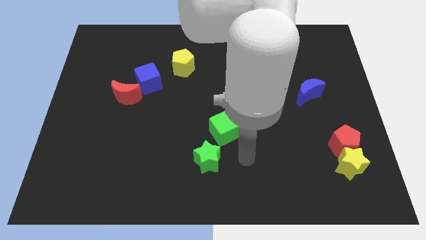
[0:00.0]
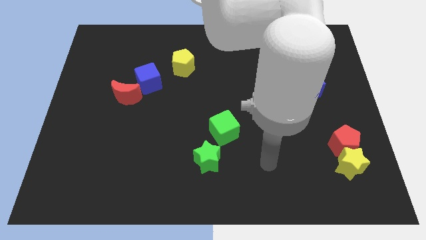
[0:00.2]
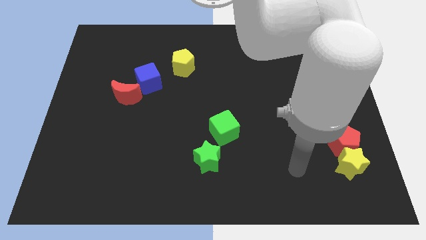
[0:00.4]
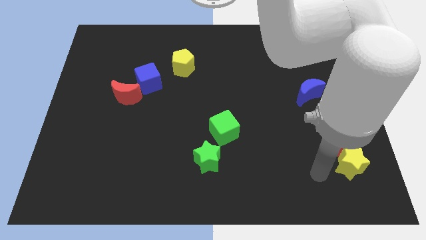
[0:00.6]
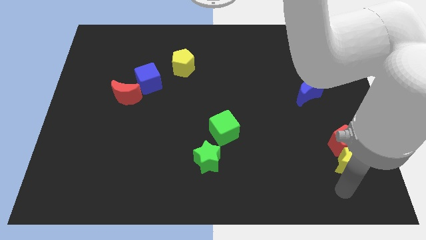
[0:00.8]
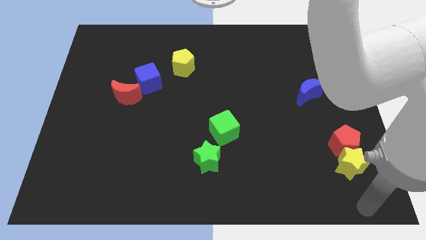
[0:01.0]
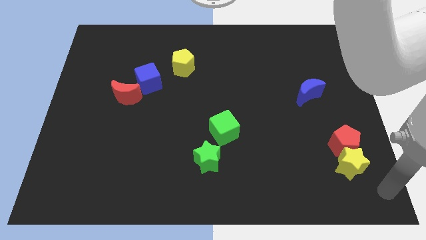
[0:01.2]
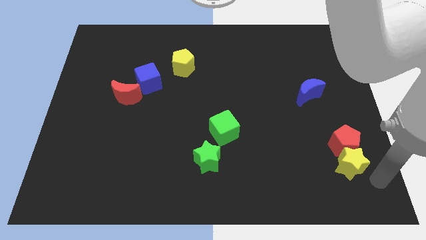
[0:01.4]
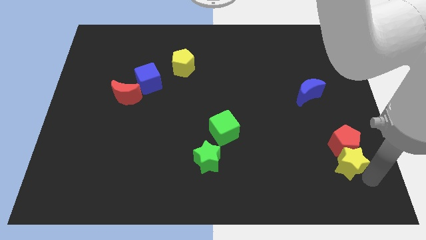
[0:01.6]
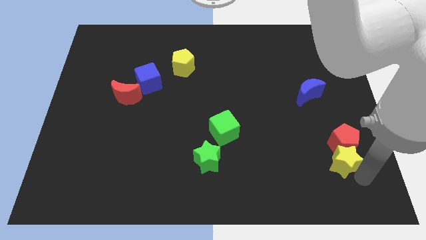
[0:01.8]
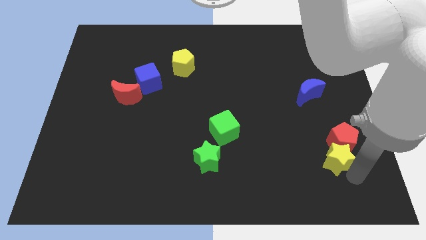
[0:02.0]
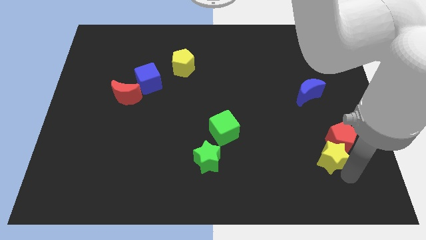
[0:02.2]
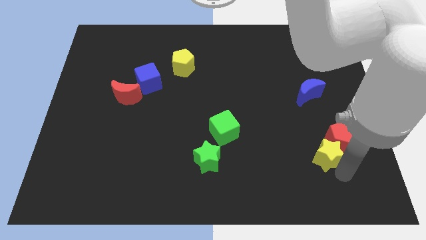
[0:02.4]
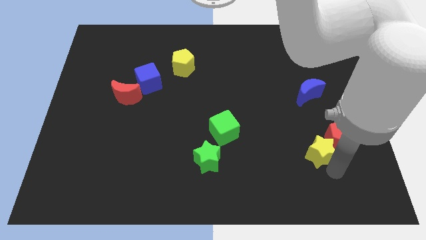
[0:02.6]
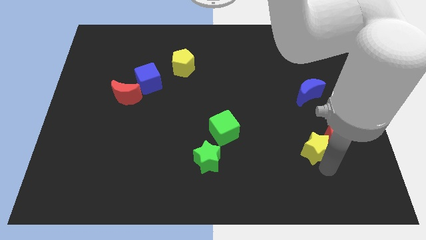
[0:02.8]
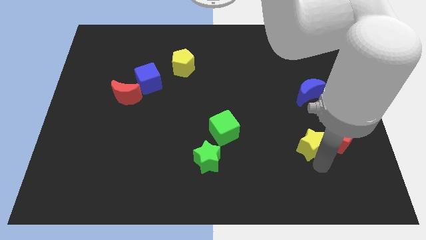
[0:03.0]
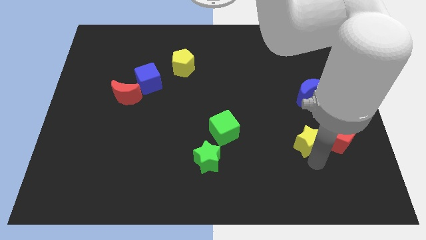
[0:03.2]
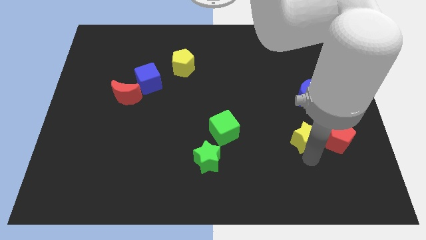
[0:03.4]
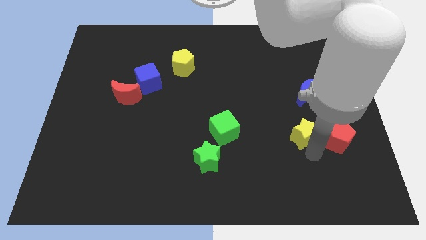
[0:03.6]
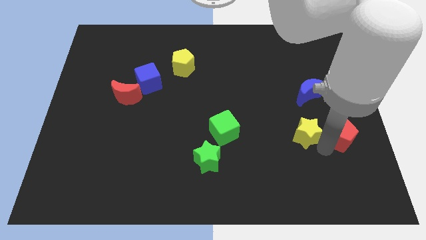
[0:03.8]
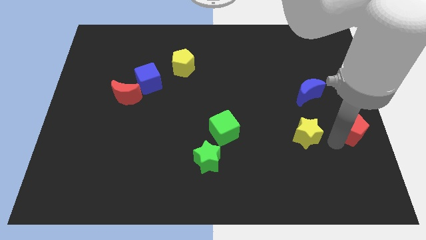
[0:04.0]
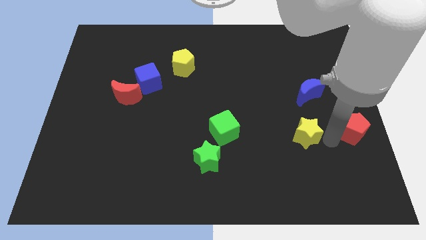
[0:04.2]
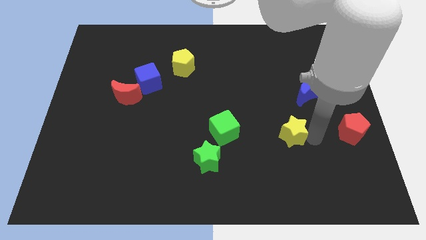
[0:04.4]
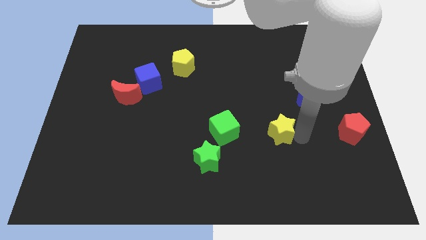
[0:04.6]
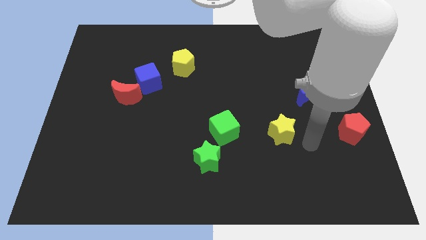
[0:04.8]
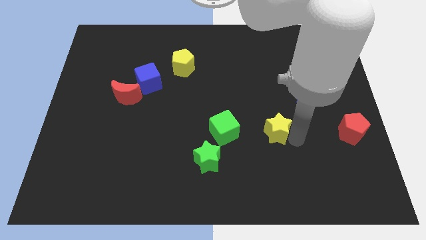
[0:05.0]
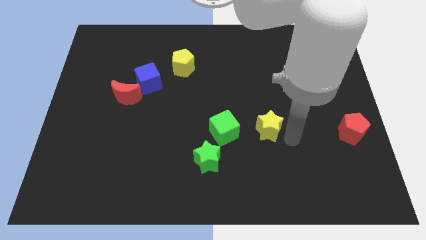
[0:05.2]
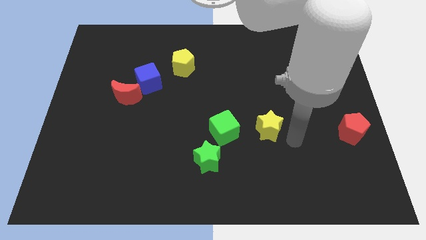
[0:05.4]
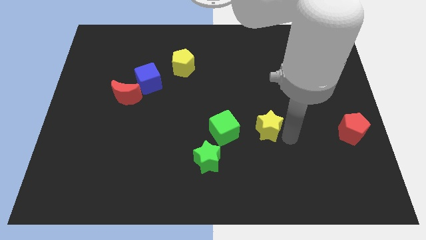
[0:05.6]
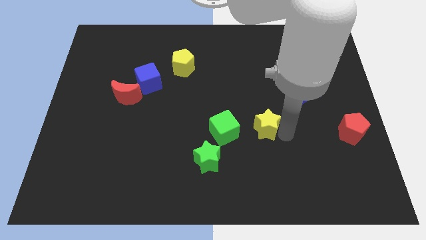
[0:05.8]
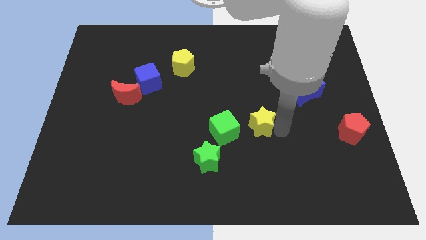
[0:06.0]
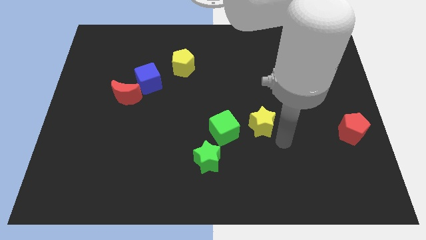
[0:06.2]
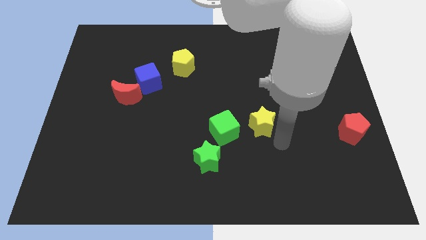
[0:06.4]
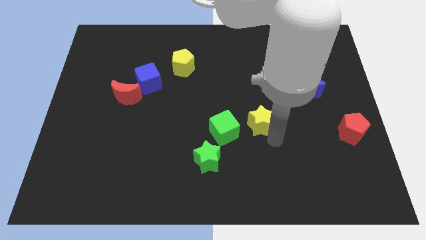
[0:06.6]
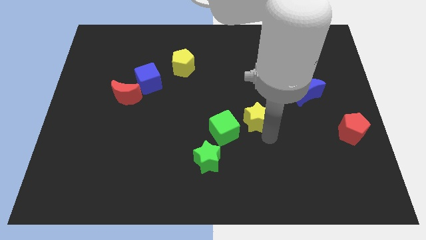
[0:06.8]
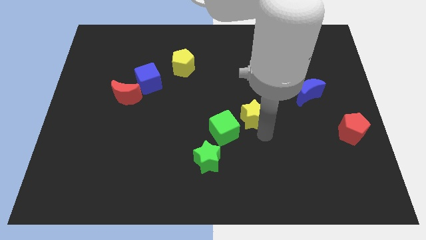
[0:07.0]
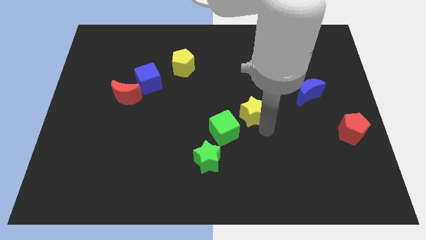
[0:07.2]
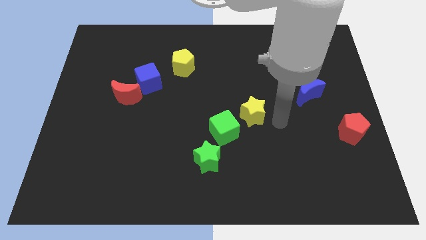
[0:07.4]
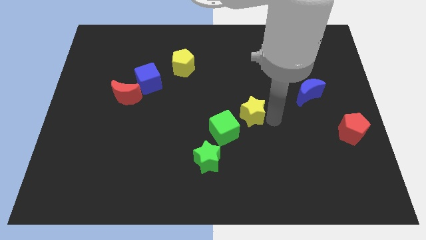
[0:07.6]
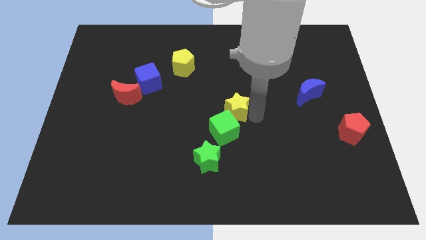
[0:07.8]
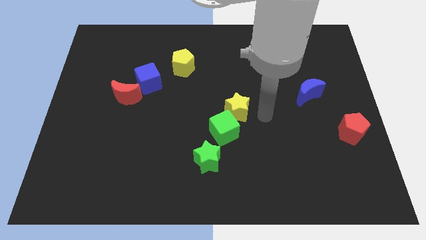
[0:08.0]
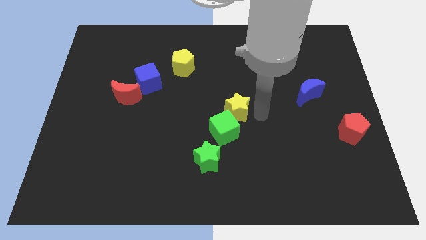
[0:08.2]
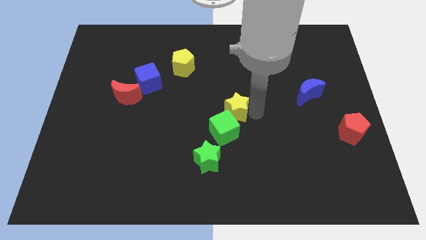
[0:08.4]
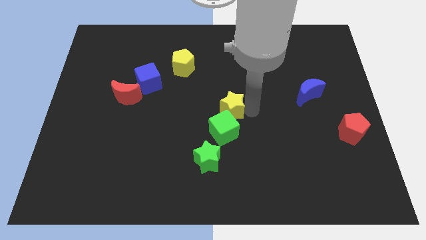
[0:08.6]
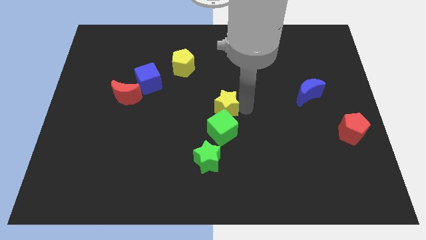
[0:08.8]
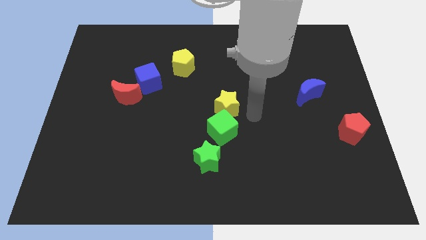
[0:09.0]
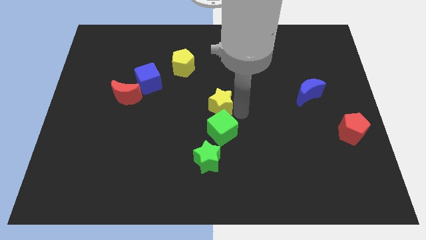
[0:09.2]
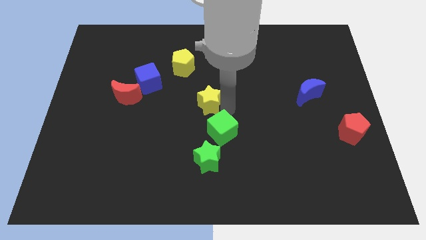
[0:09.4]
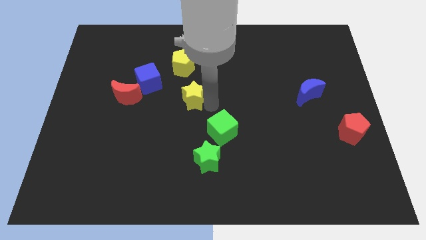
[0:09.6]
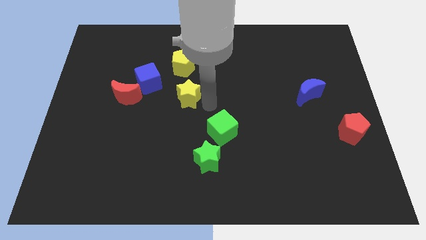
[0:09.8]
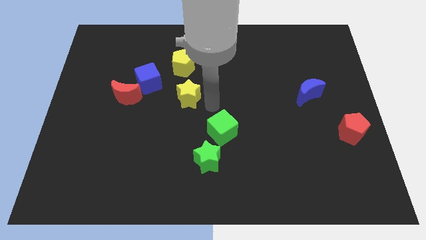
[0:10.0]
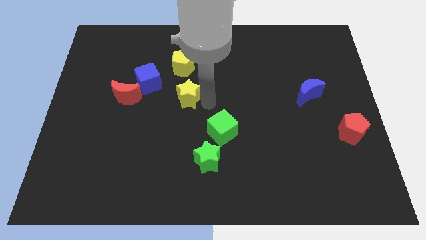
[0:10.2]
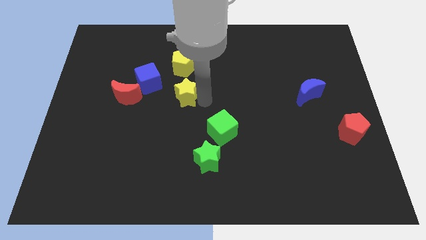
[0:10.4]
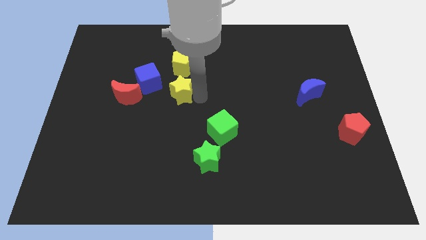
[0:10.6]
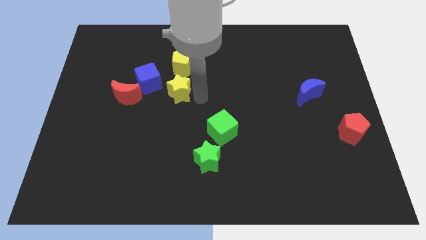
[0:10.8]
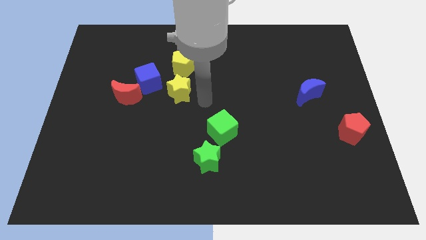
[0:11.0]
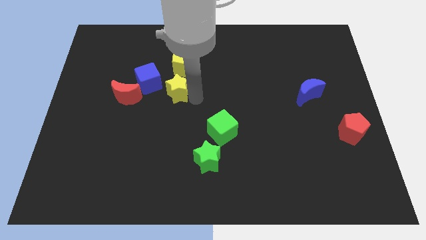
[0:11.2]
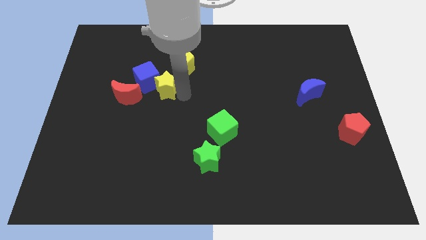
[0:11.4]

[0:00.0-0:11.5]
slide the yellow star towards the blue cube

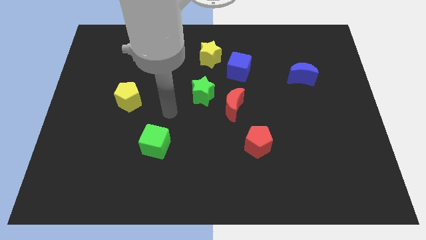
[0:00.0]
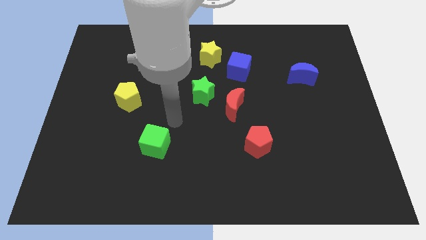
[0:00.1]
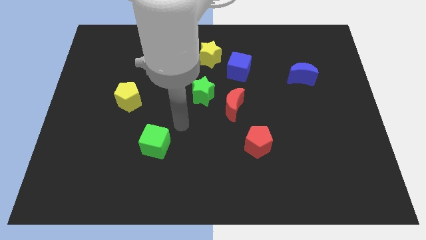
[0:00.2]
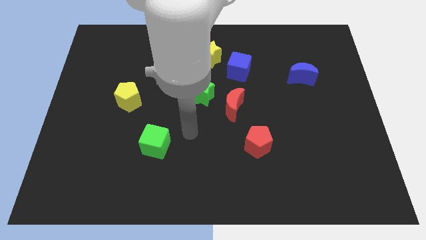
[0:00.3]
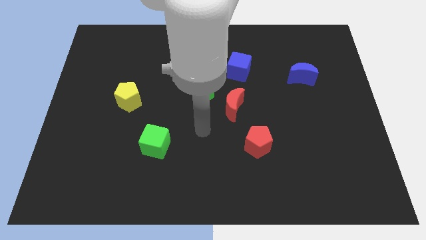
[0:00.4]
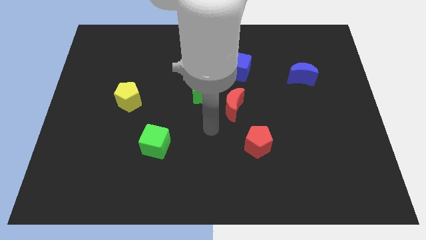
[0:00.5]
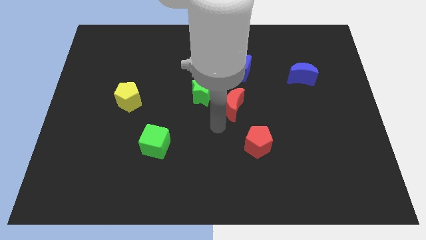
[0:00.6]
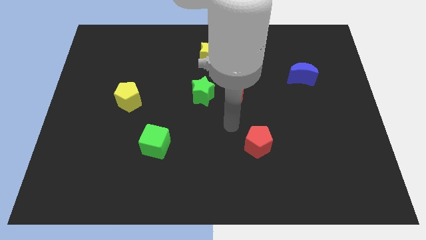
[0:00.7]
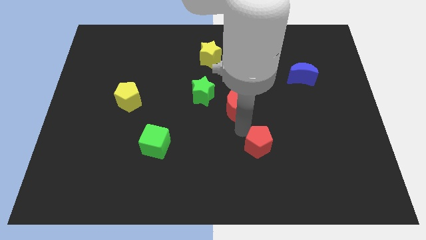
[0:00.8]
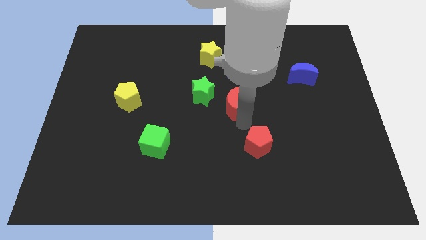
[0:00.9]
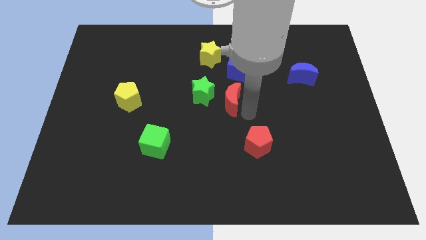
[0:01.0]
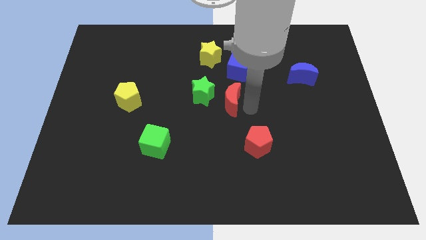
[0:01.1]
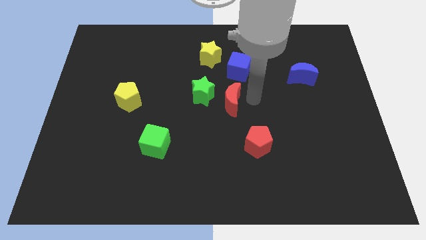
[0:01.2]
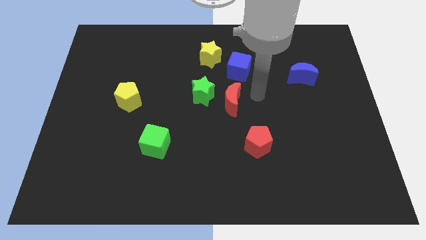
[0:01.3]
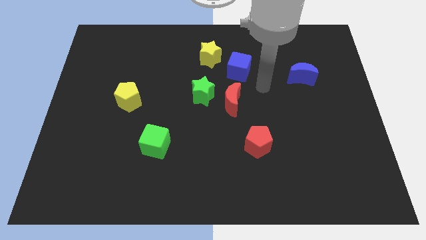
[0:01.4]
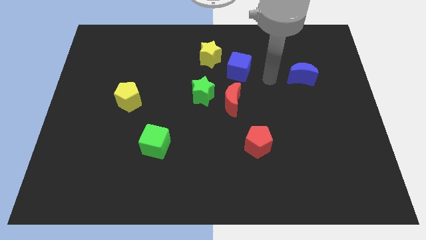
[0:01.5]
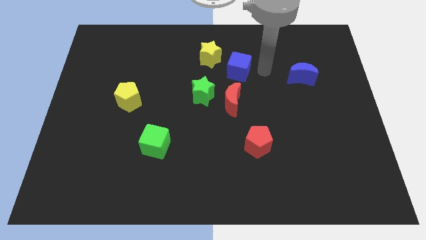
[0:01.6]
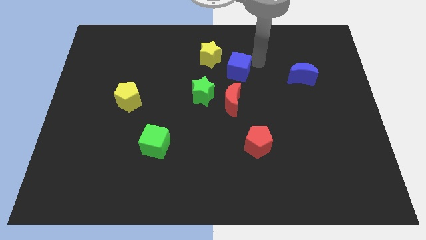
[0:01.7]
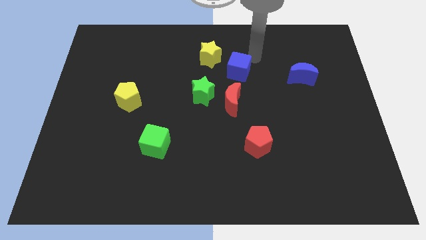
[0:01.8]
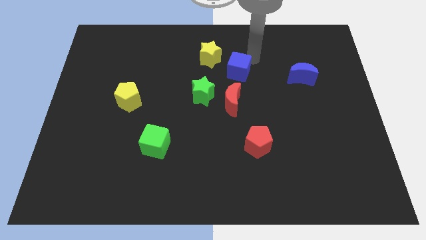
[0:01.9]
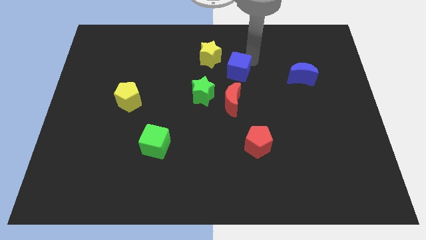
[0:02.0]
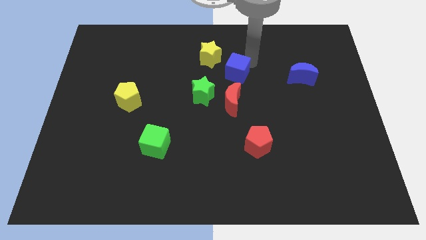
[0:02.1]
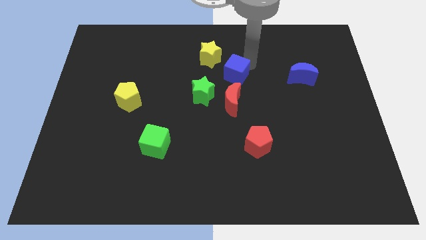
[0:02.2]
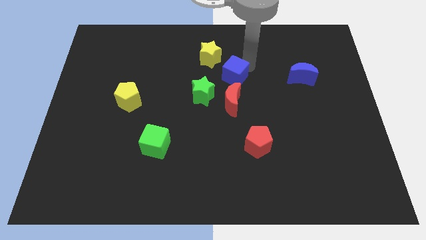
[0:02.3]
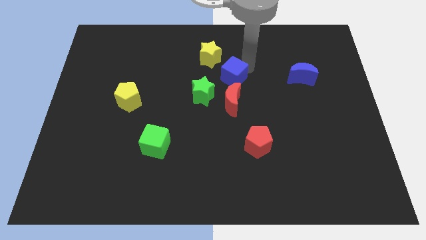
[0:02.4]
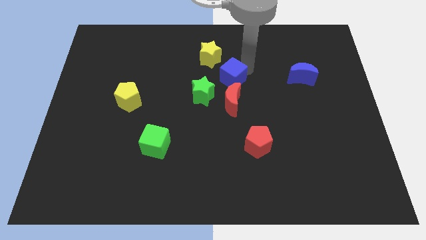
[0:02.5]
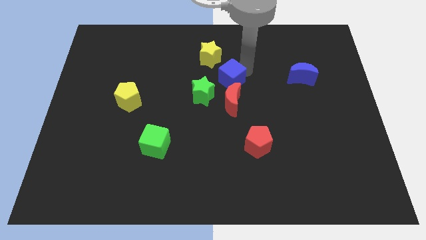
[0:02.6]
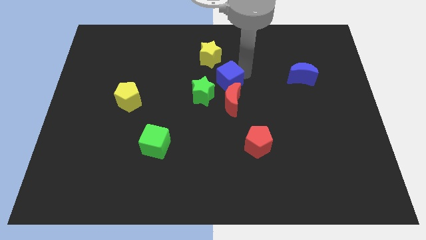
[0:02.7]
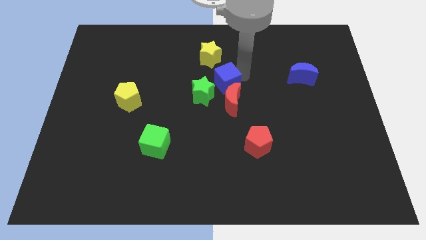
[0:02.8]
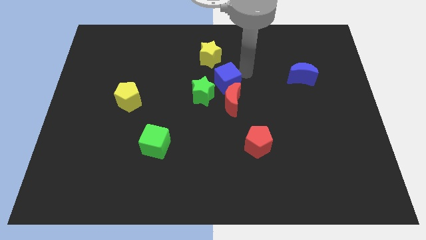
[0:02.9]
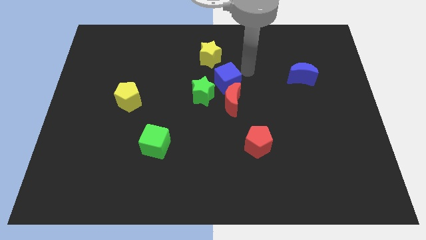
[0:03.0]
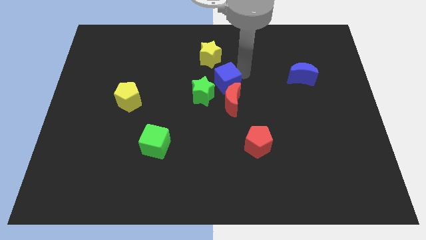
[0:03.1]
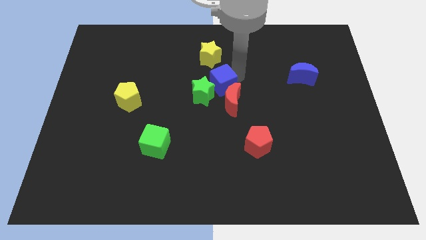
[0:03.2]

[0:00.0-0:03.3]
push the blue cube next to the green star
